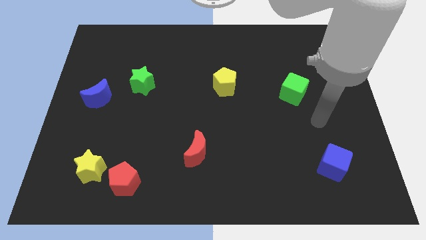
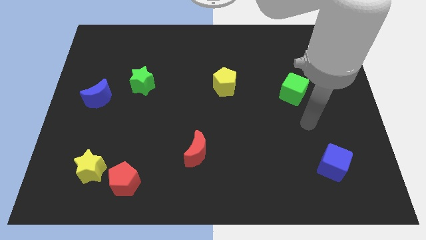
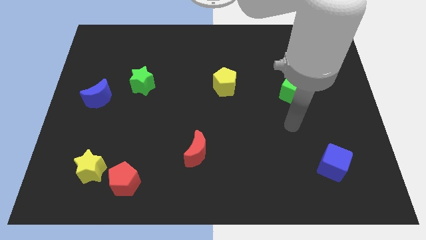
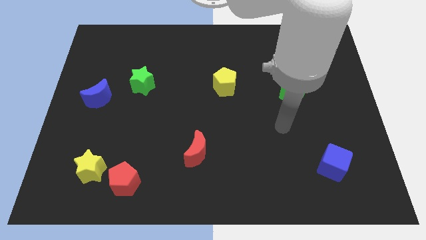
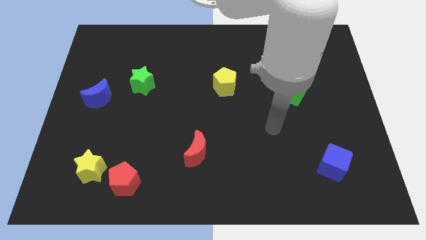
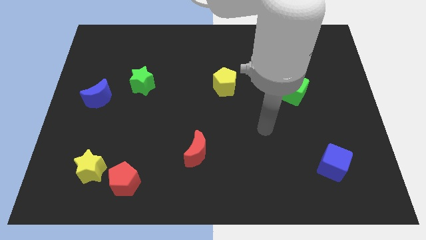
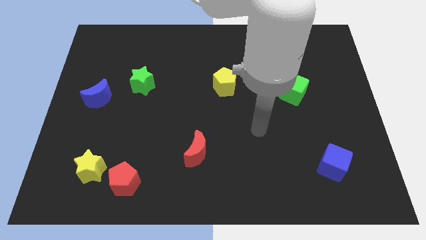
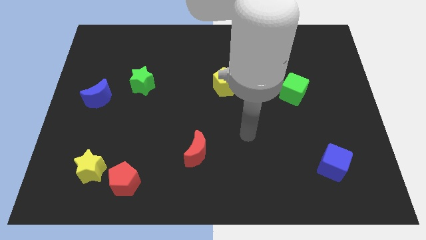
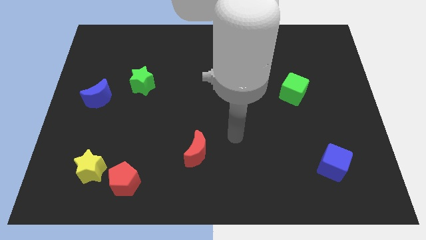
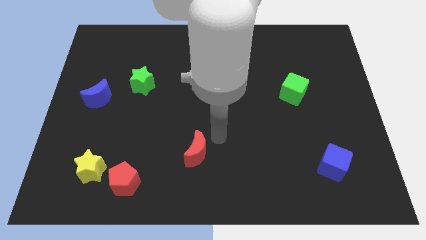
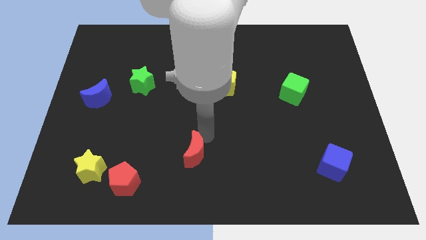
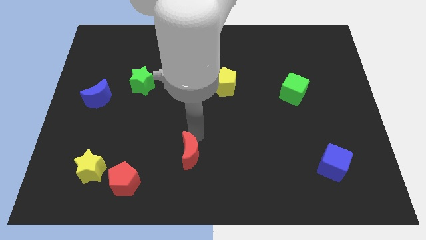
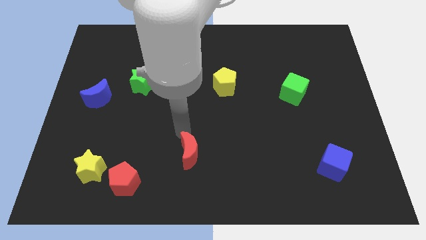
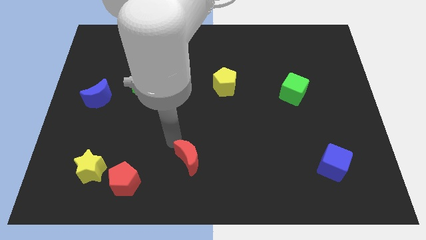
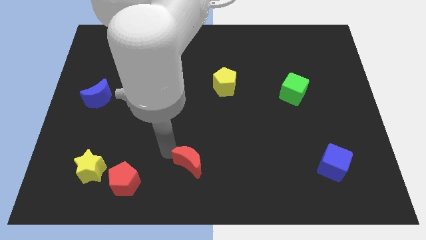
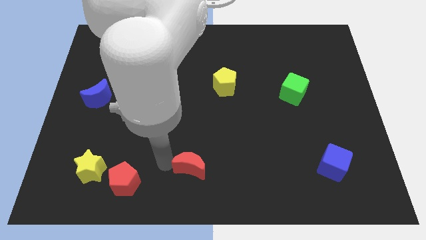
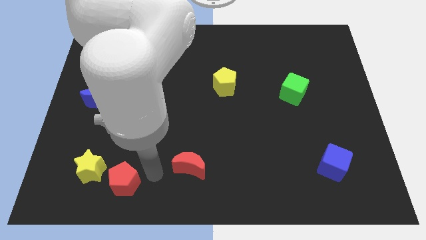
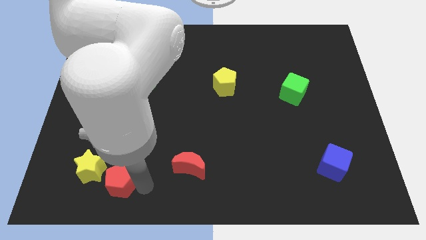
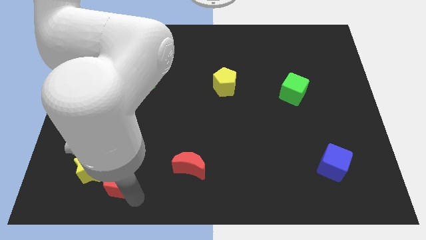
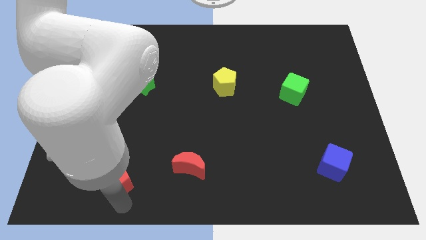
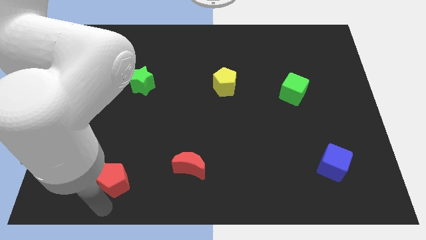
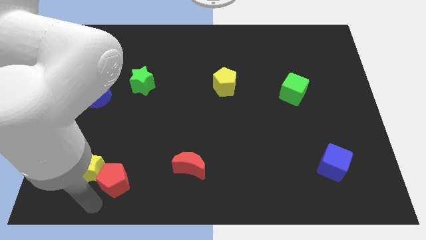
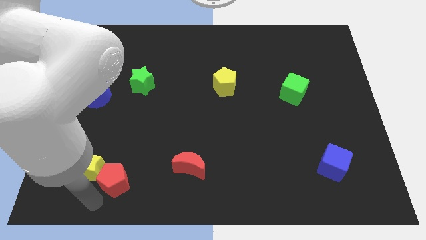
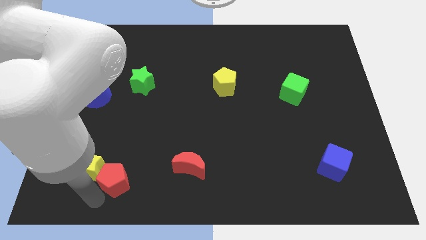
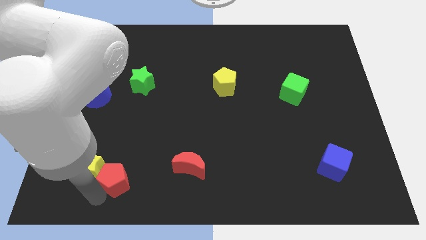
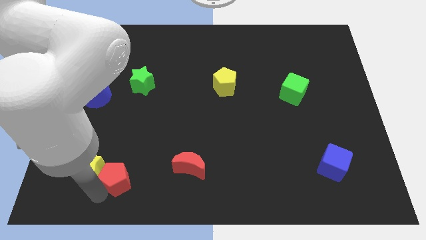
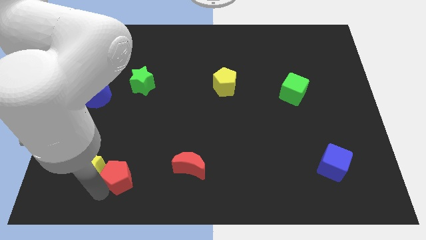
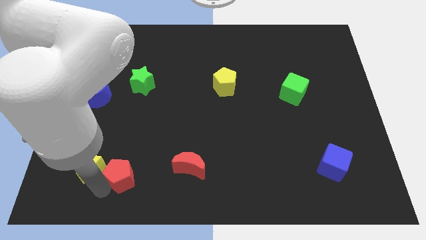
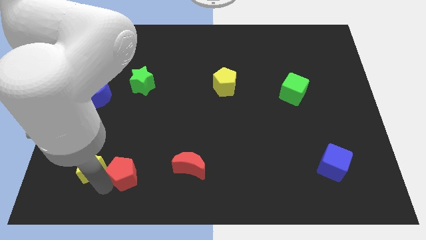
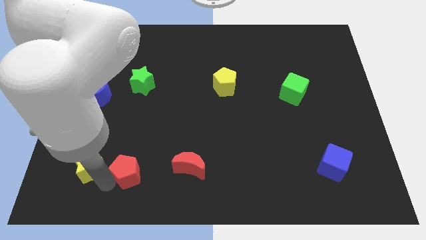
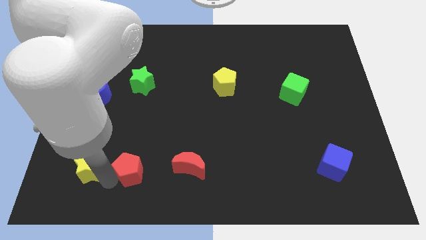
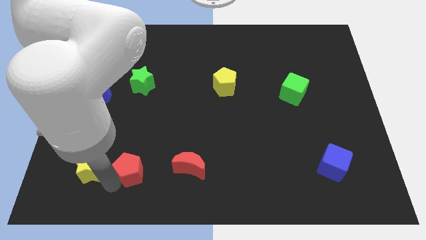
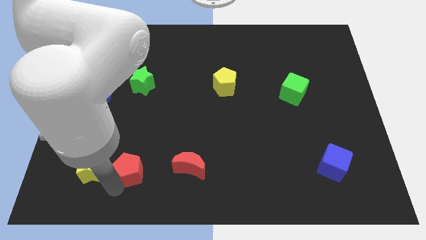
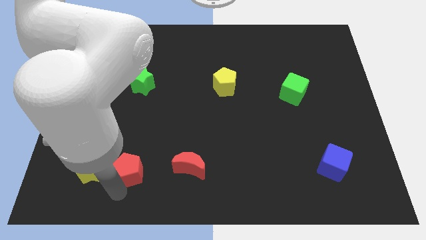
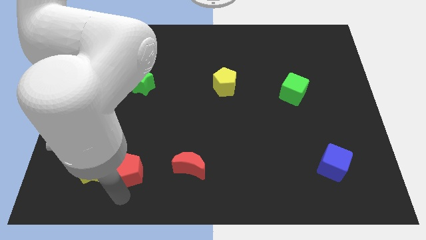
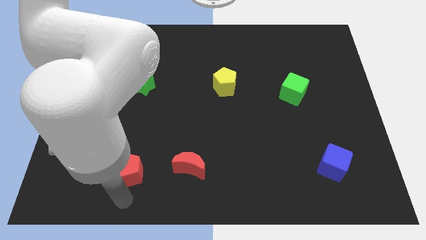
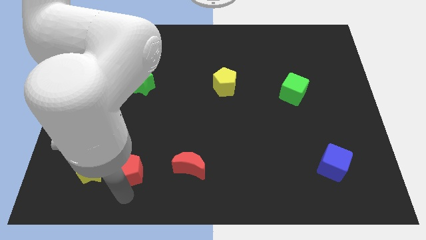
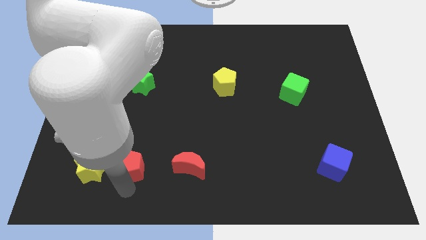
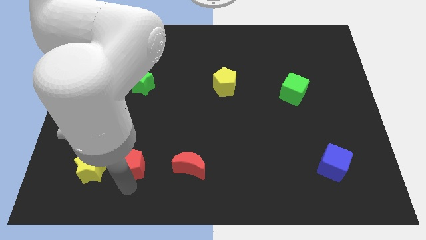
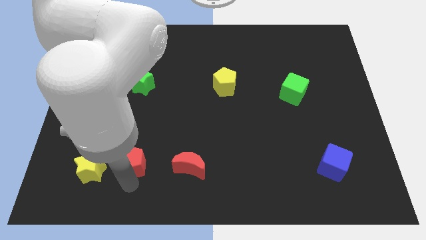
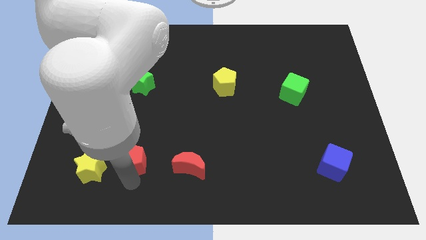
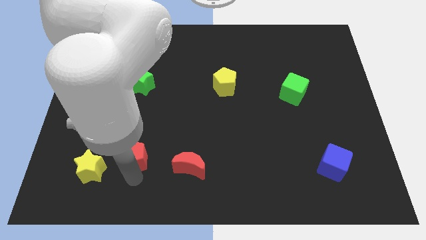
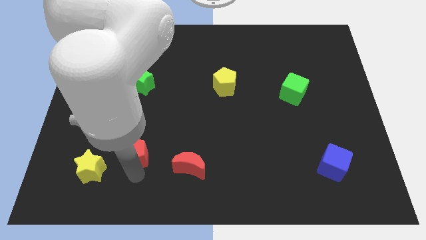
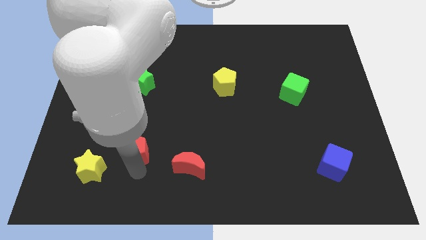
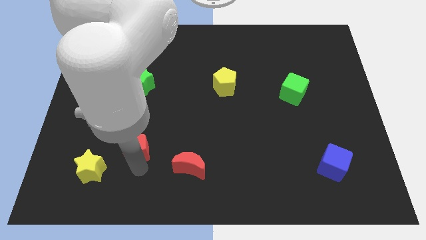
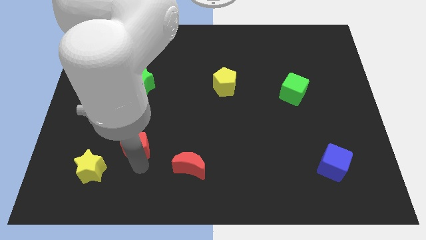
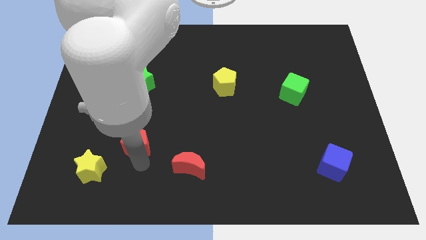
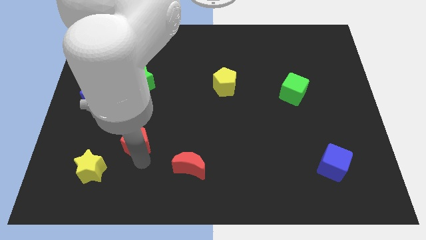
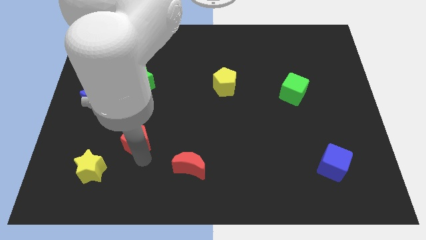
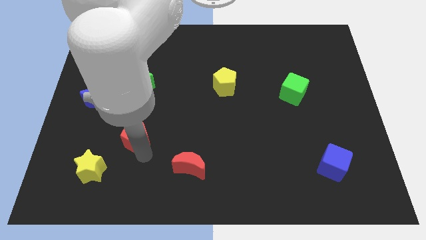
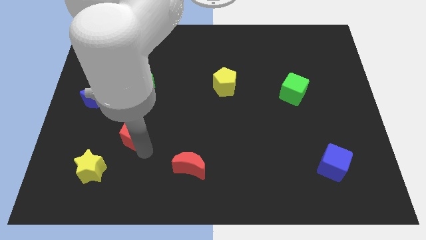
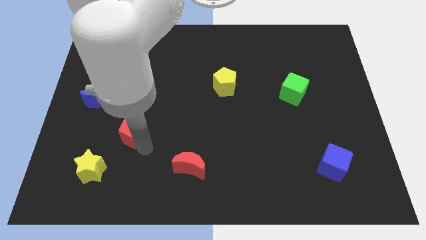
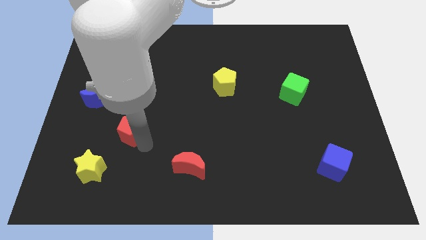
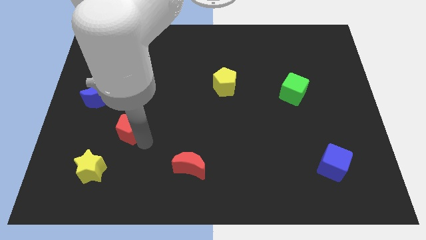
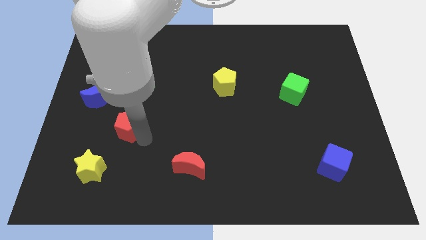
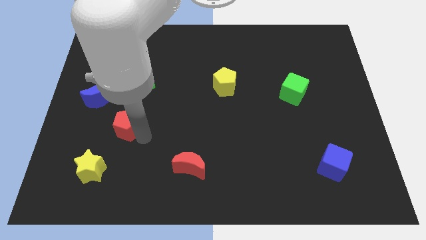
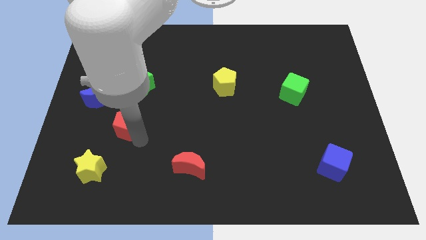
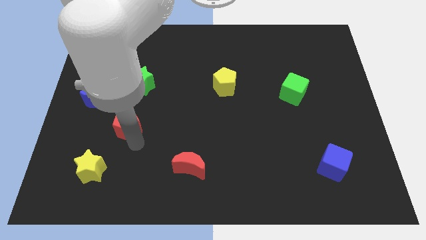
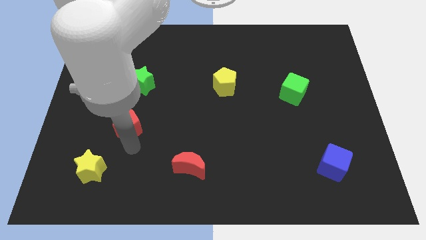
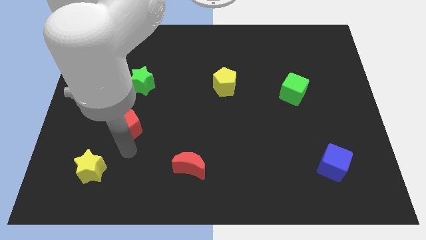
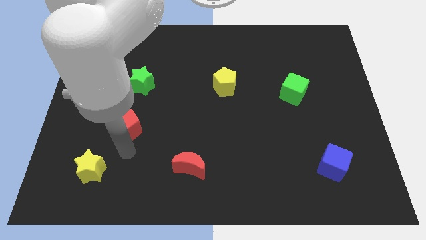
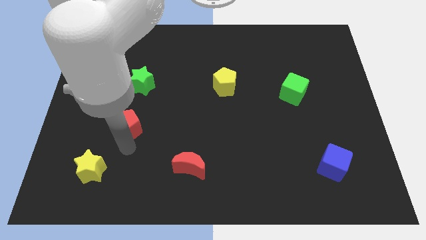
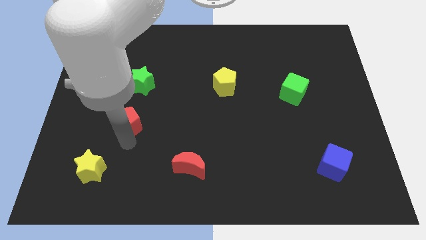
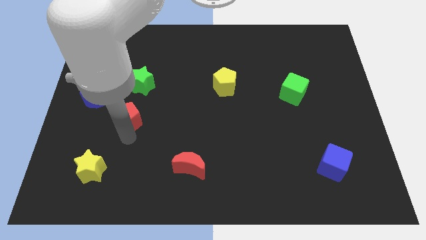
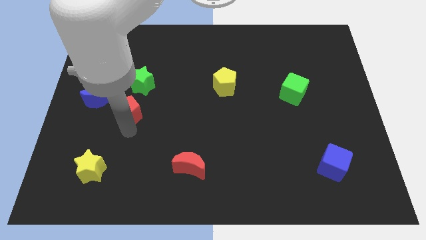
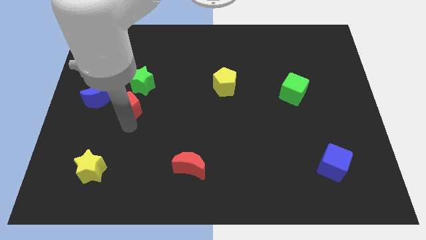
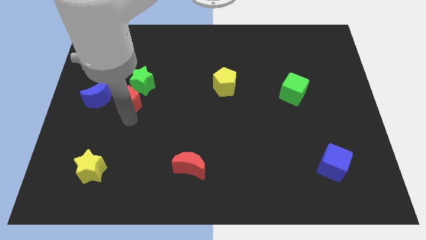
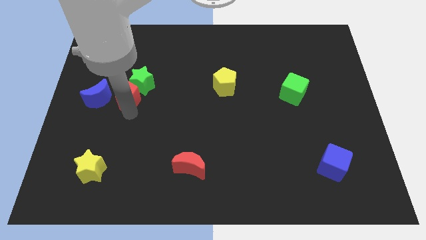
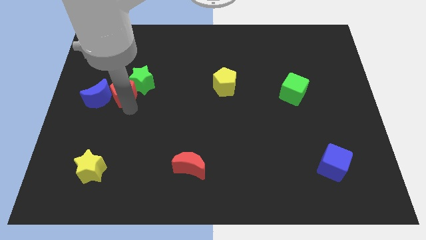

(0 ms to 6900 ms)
put the red pentagon left of the green star

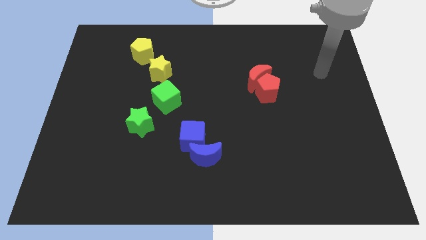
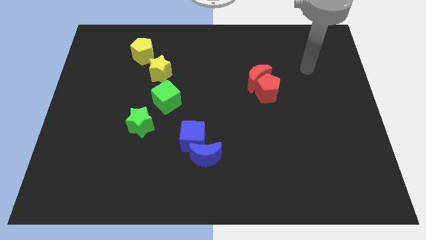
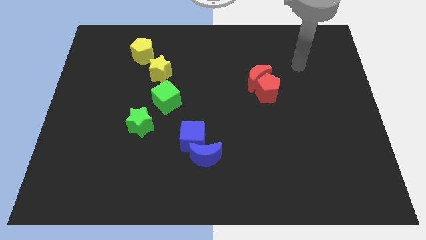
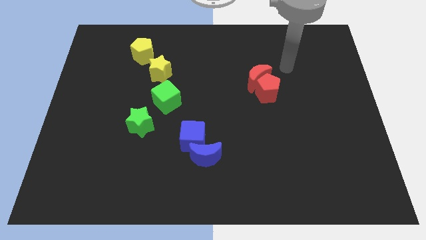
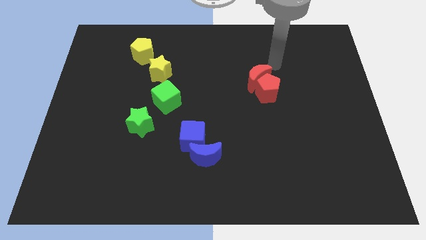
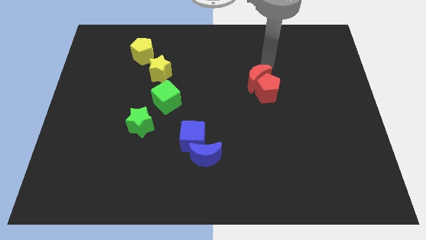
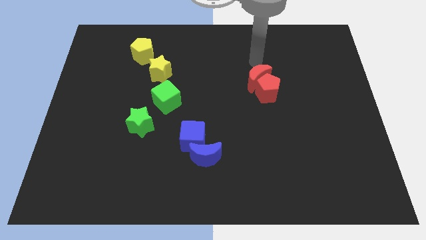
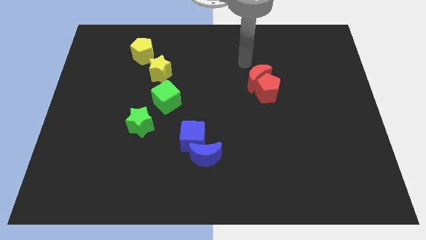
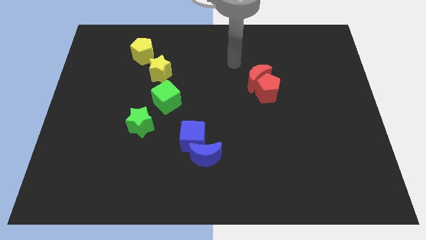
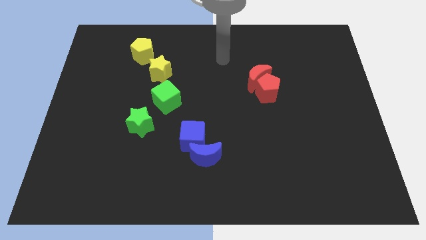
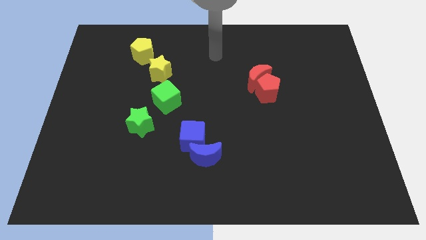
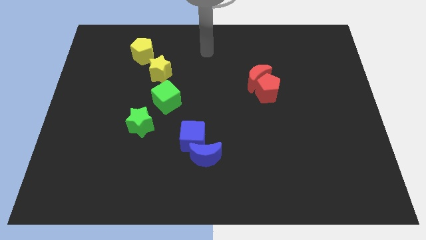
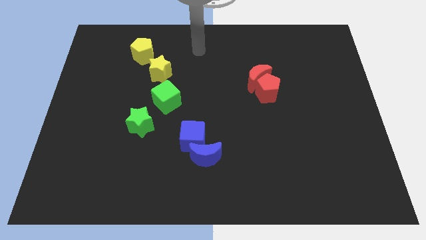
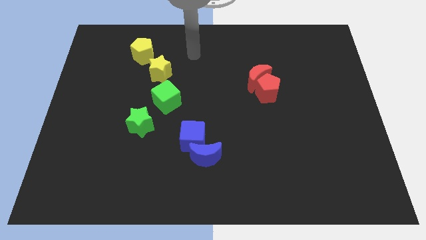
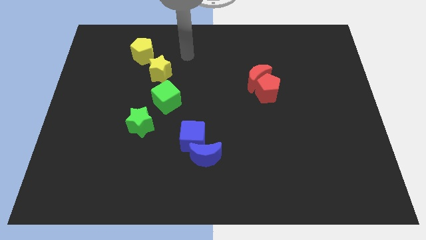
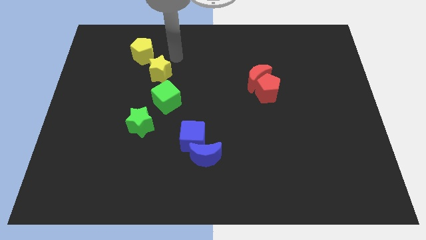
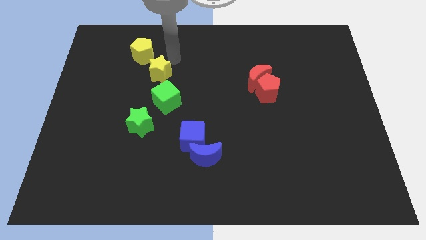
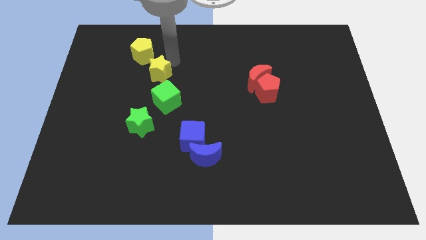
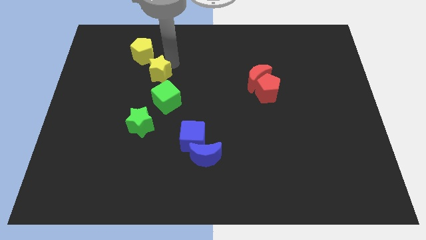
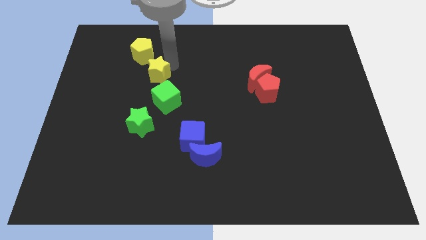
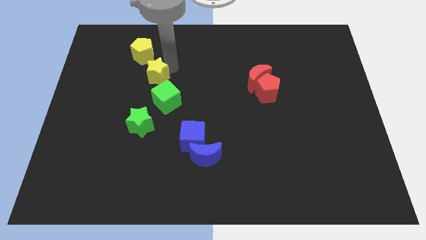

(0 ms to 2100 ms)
put the yellow star to the top of the green star
